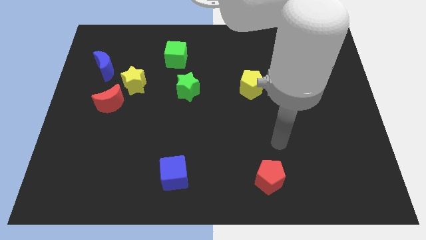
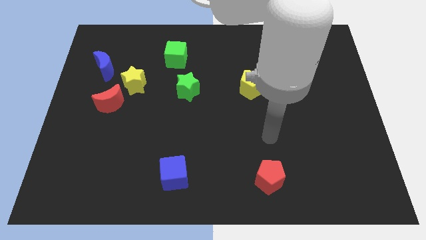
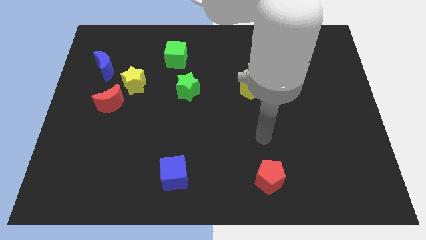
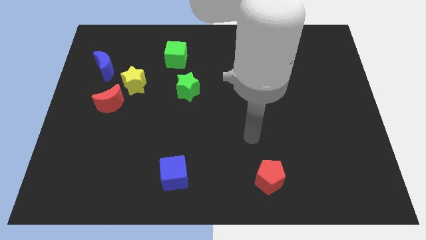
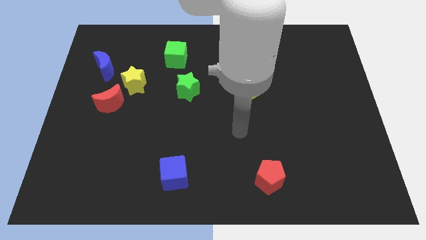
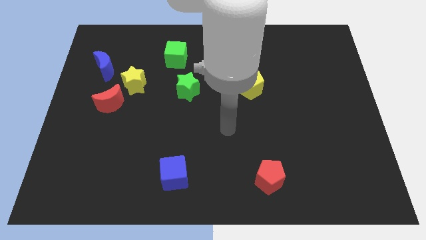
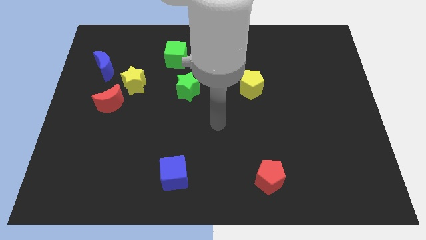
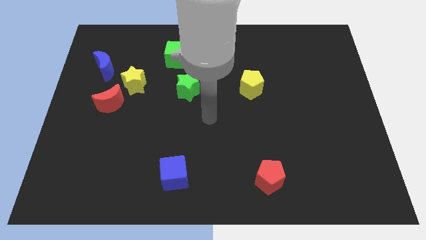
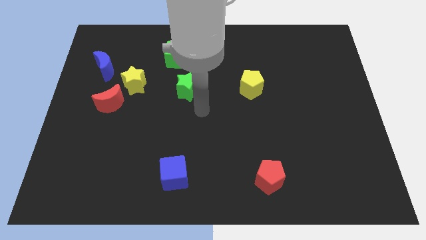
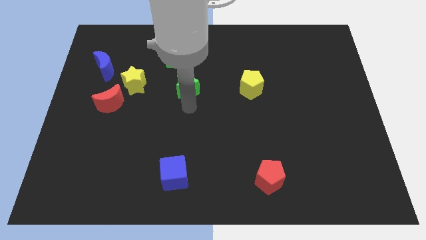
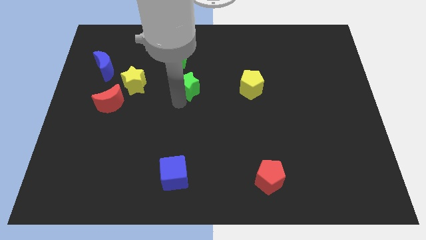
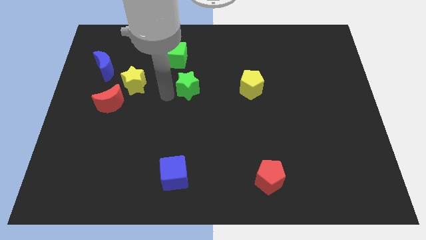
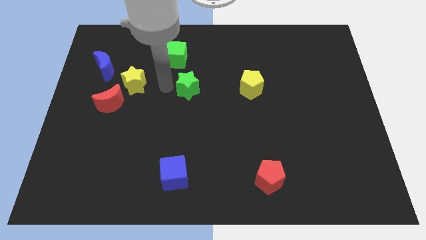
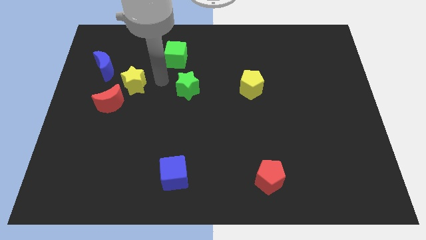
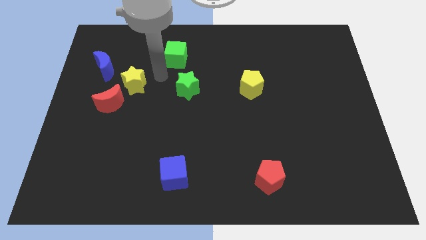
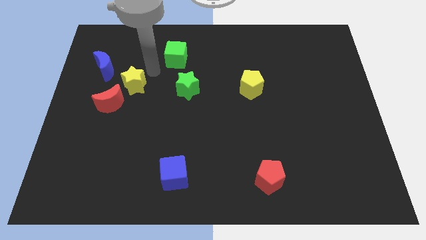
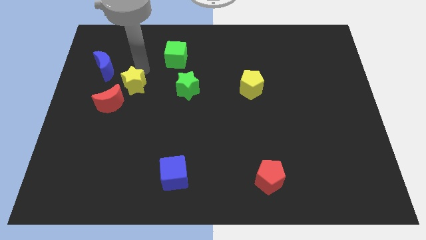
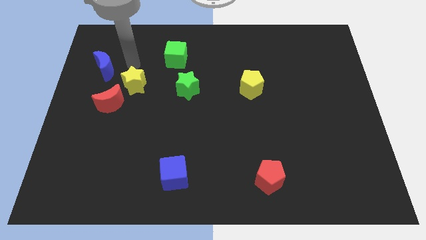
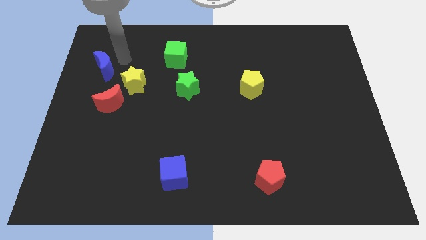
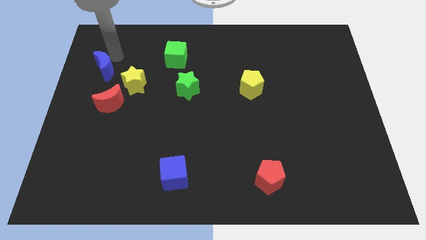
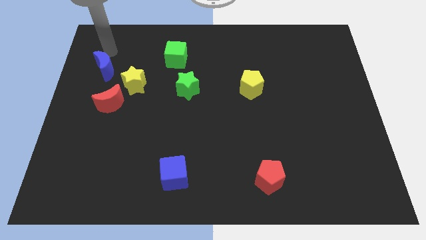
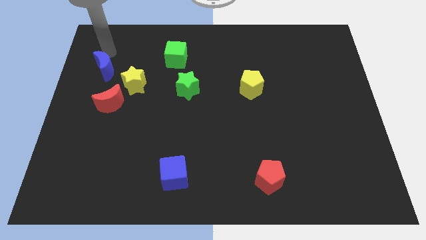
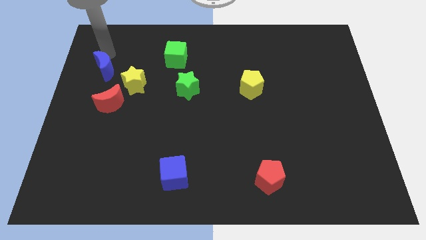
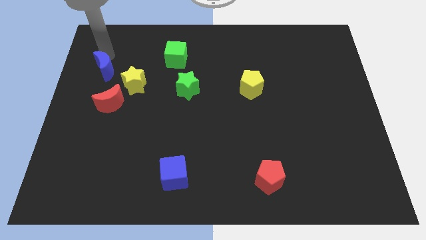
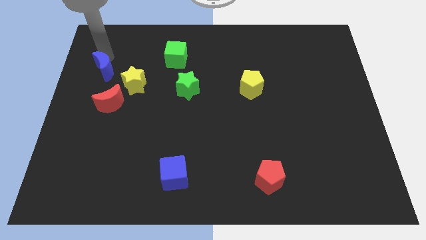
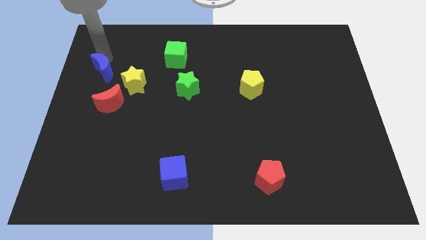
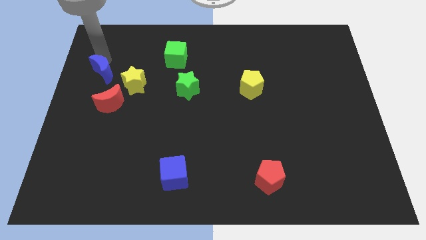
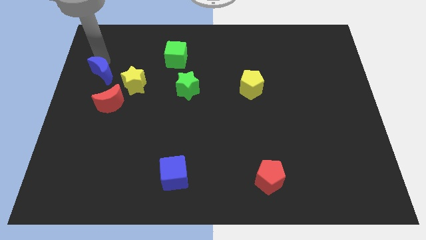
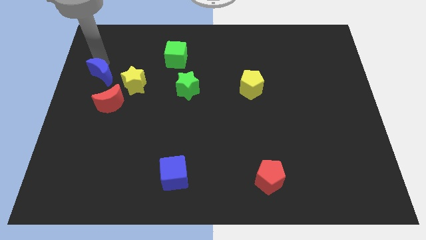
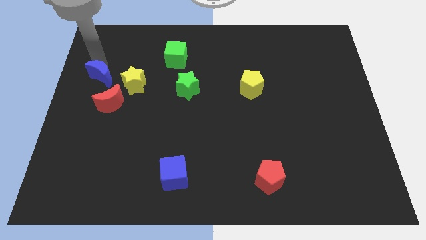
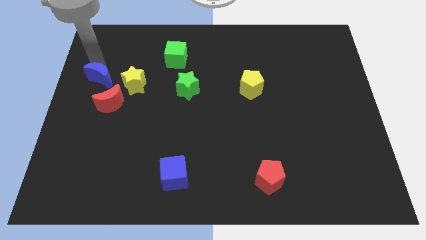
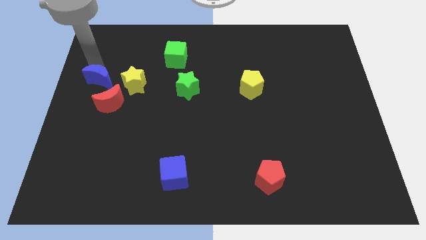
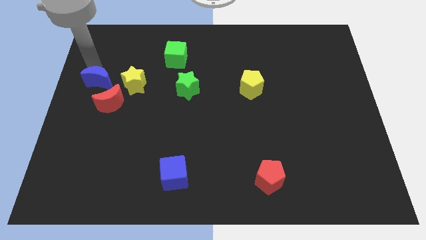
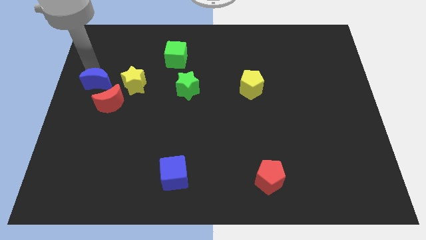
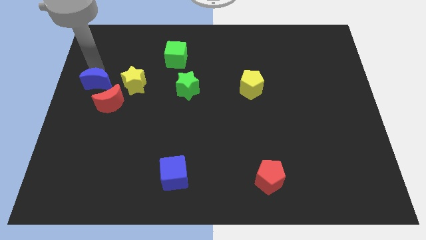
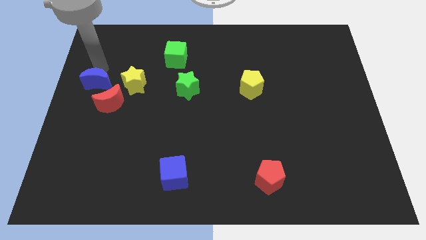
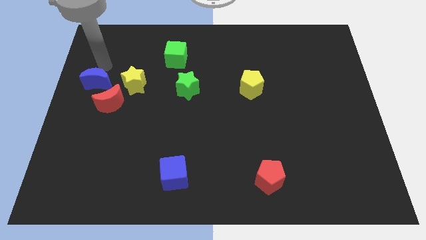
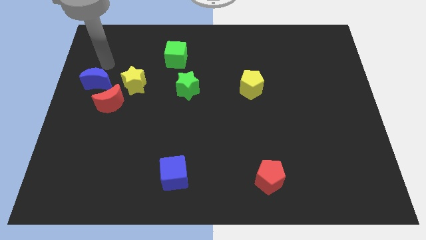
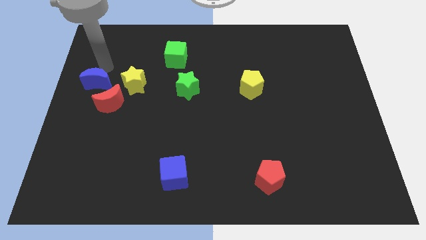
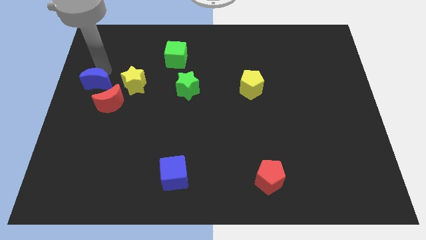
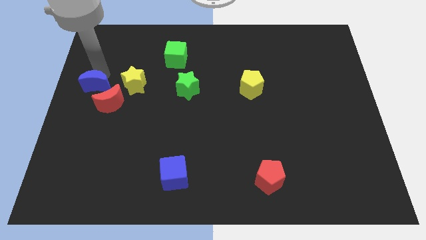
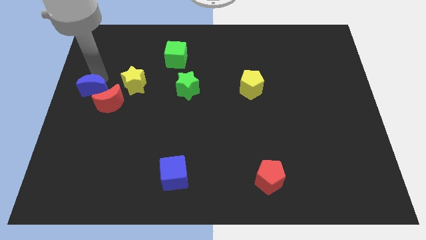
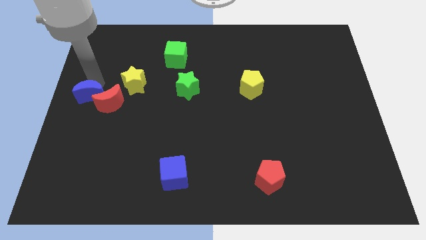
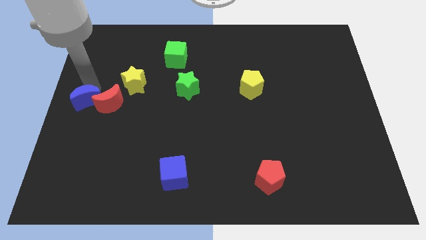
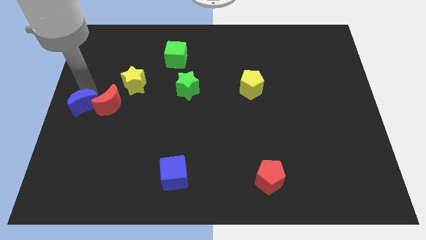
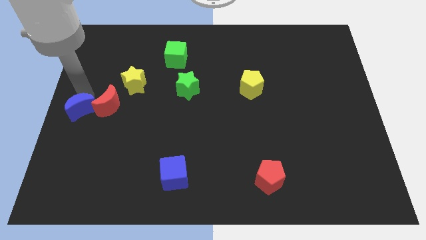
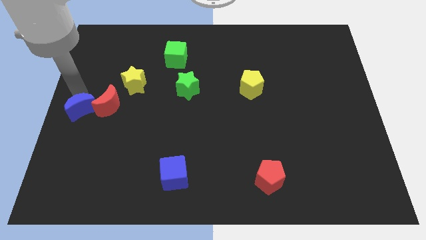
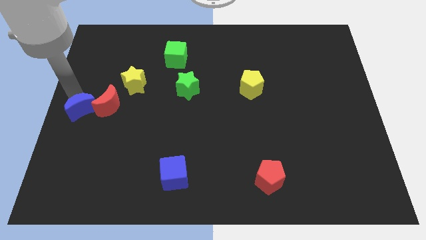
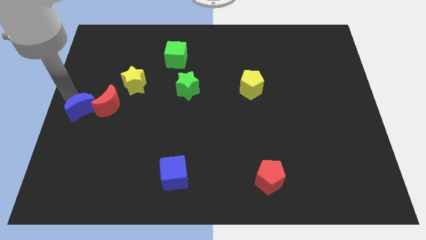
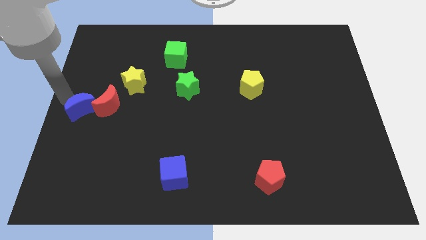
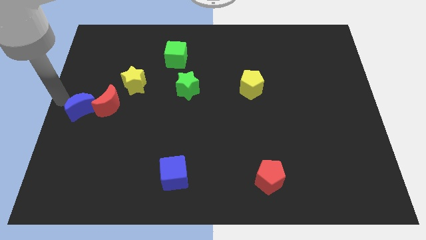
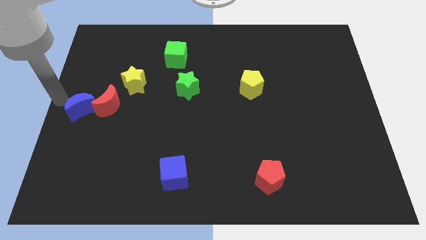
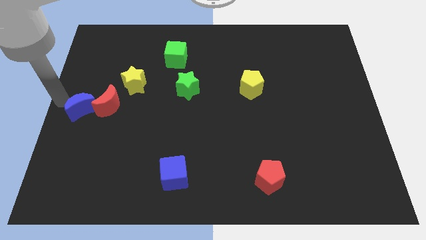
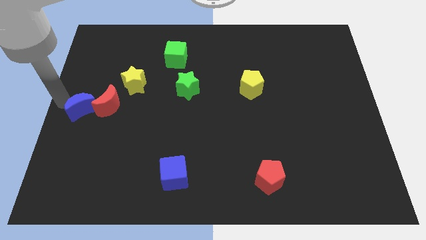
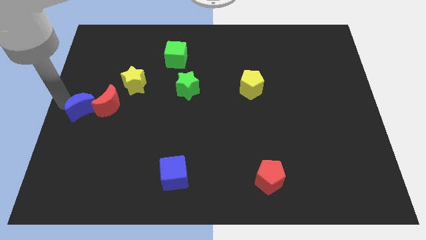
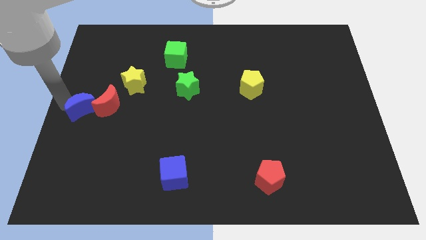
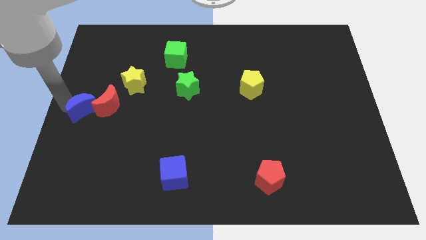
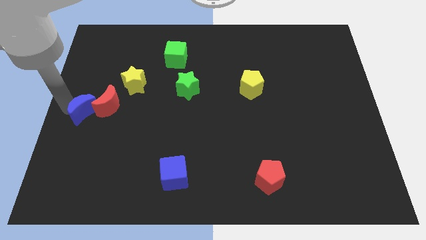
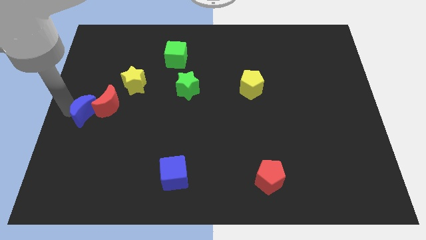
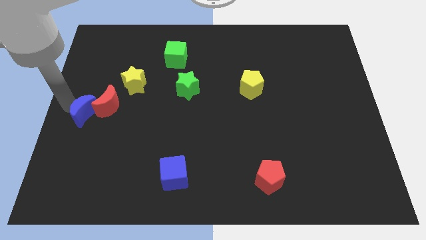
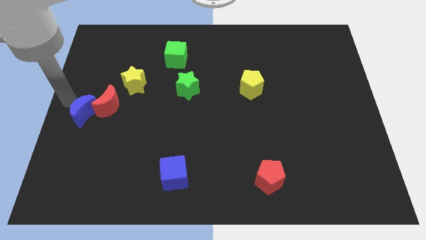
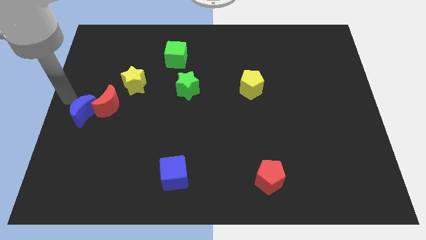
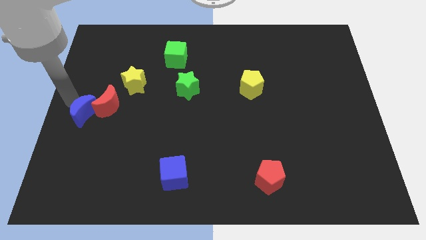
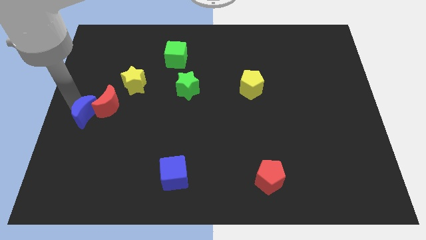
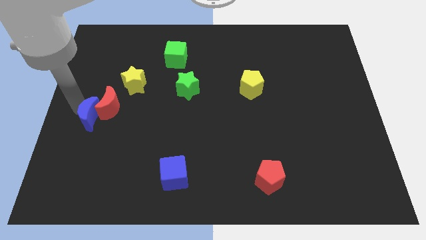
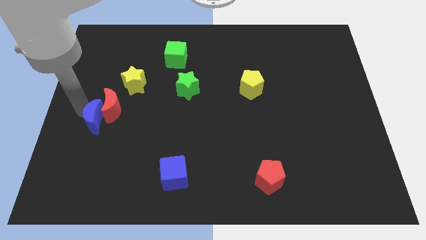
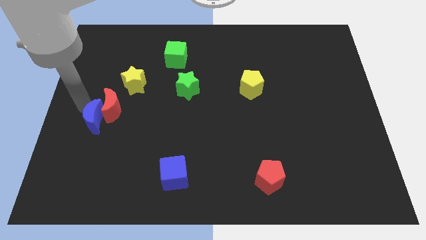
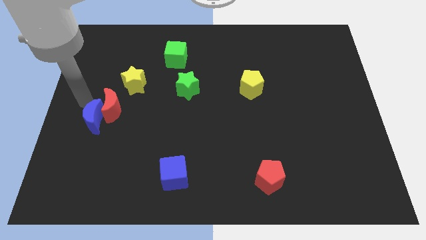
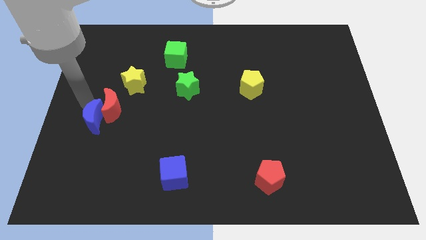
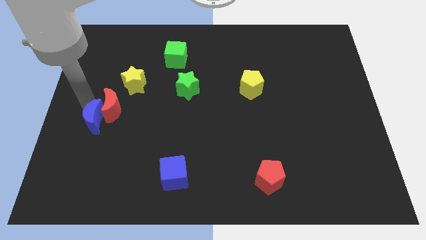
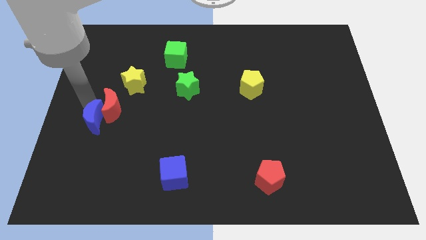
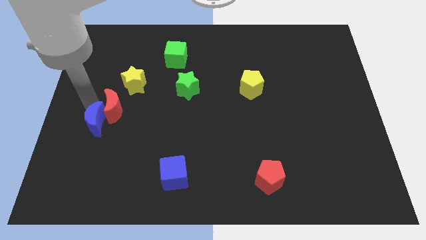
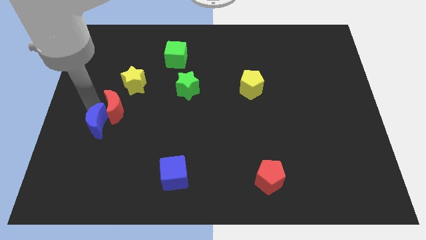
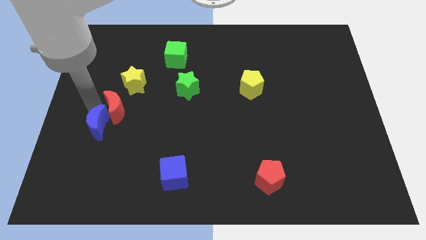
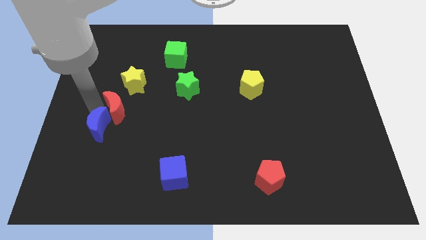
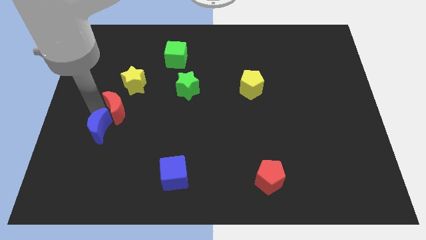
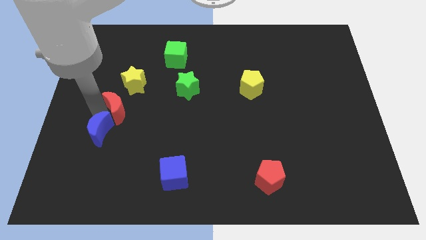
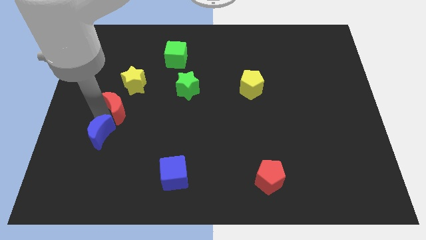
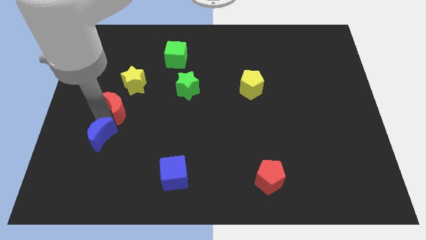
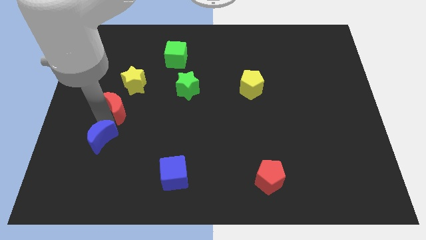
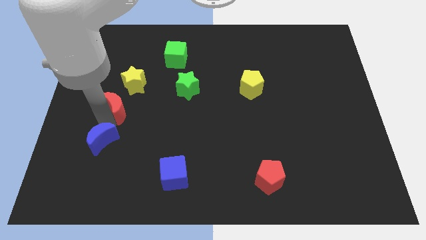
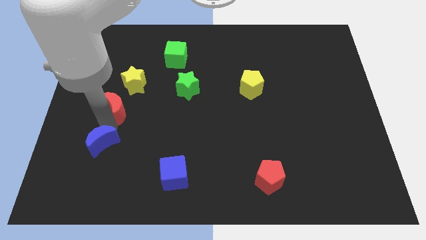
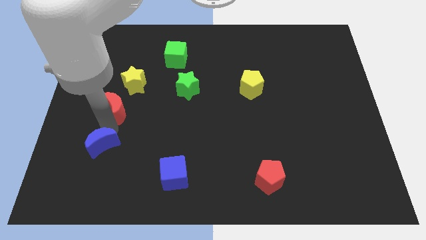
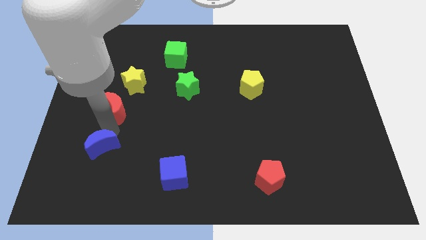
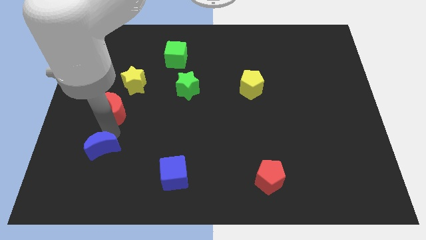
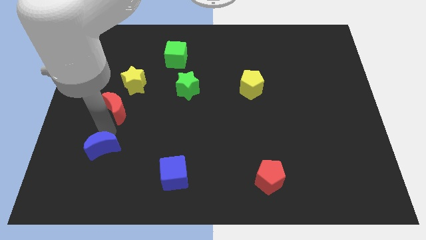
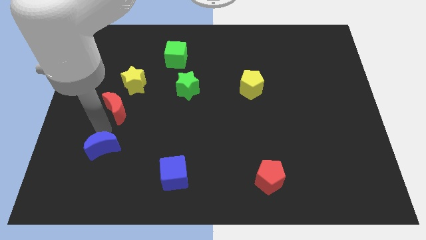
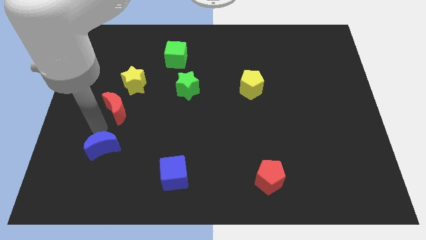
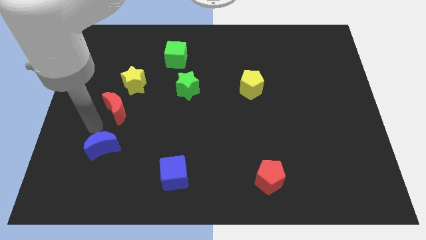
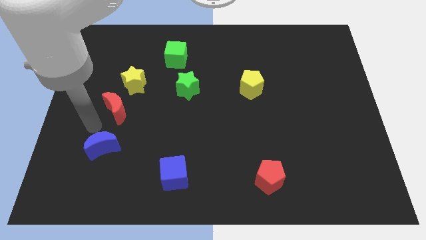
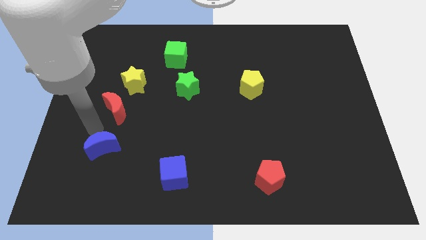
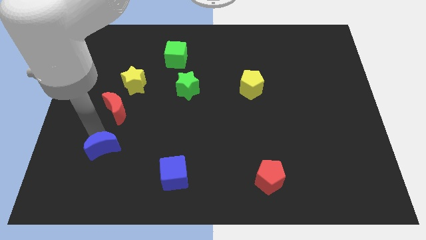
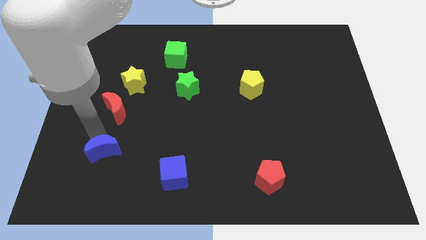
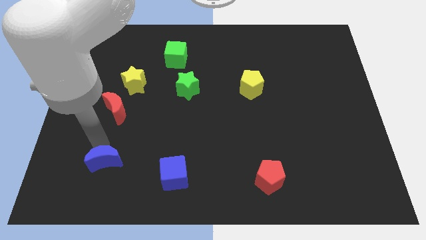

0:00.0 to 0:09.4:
move the blue moon to the left side of the blue cube
